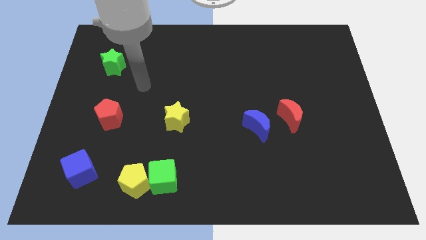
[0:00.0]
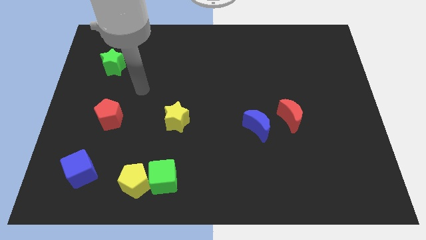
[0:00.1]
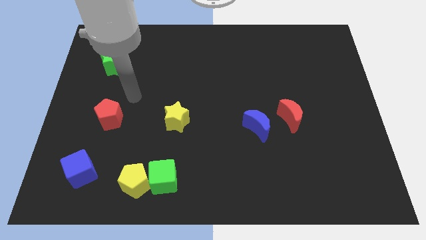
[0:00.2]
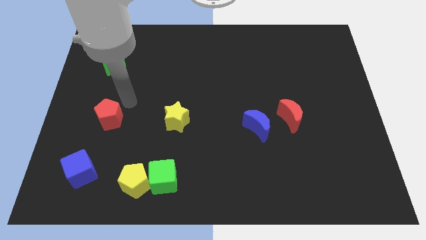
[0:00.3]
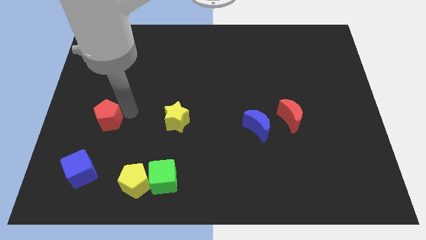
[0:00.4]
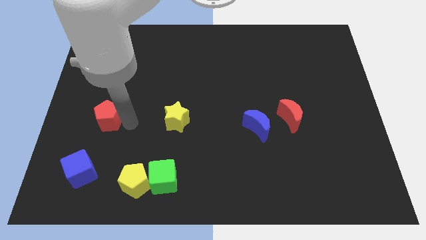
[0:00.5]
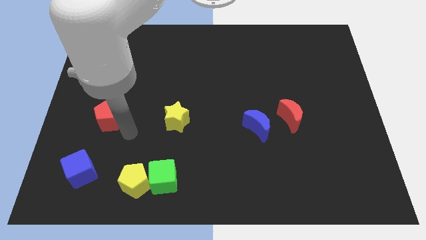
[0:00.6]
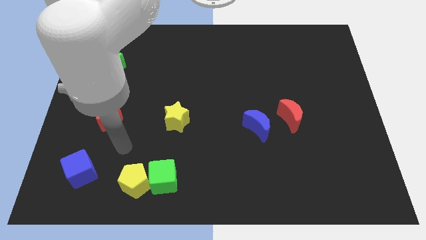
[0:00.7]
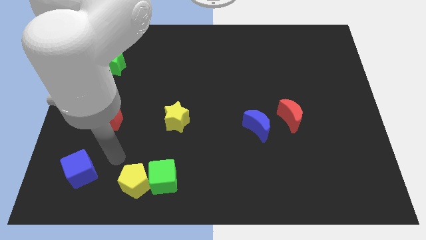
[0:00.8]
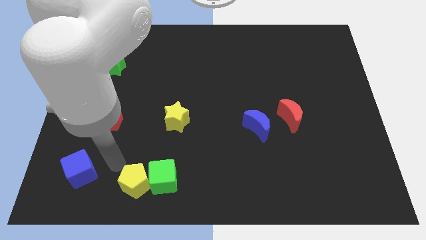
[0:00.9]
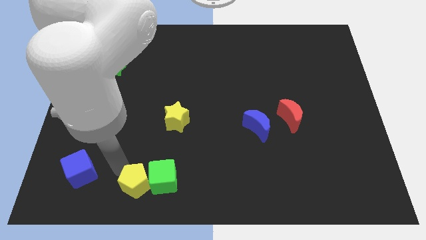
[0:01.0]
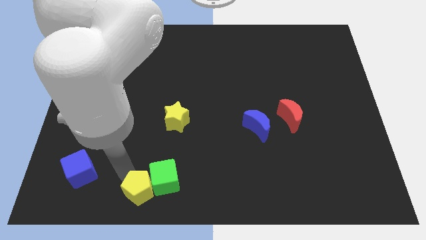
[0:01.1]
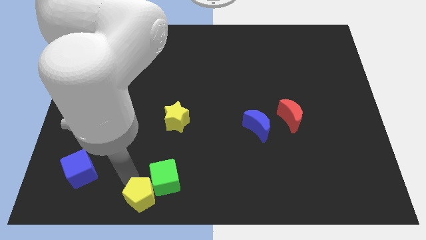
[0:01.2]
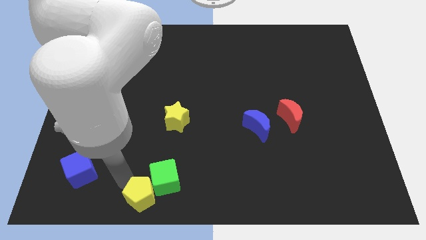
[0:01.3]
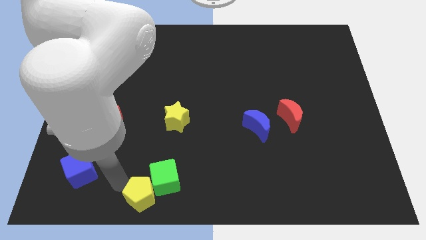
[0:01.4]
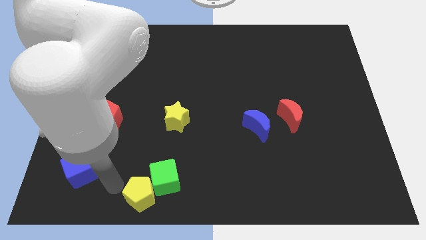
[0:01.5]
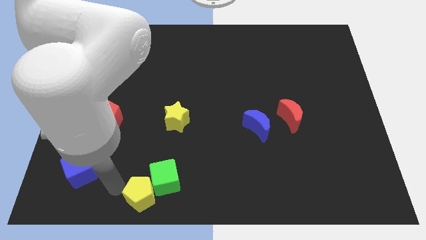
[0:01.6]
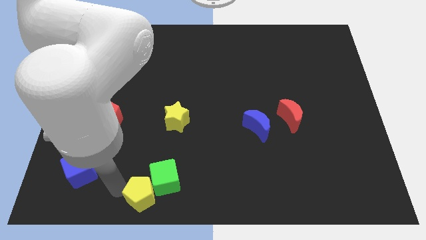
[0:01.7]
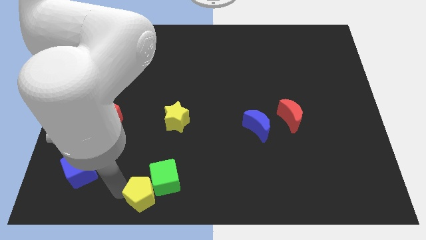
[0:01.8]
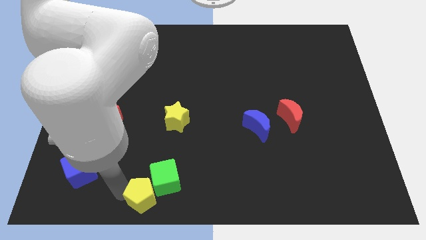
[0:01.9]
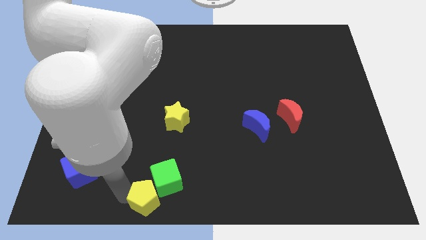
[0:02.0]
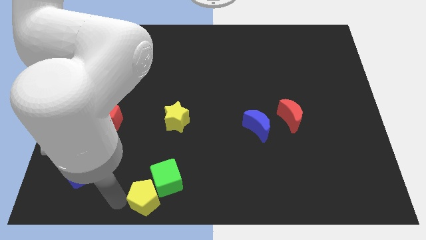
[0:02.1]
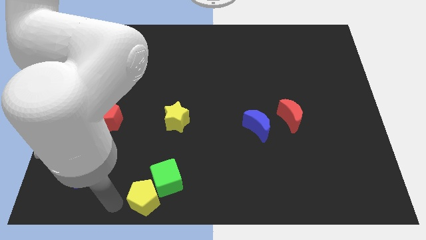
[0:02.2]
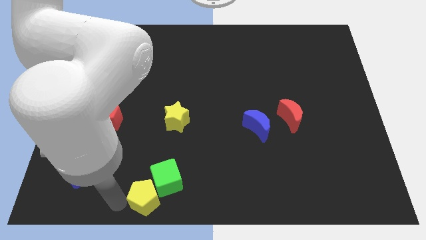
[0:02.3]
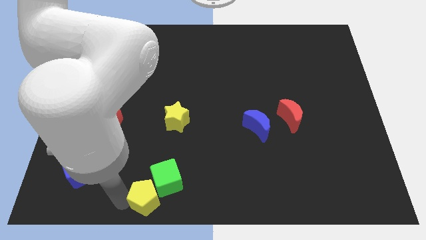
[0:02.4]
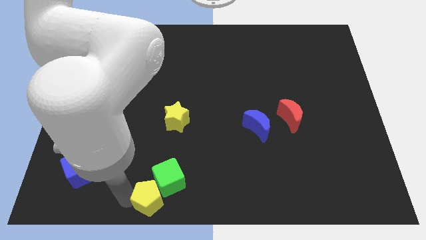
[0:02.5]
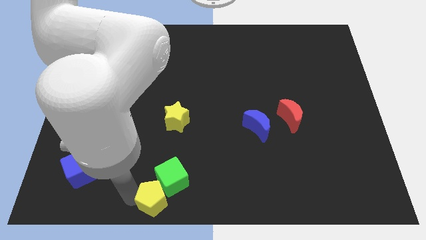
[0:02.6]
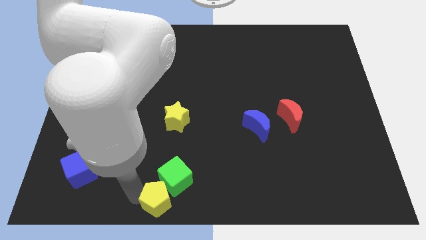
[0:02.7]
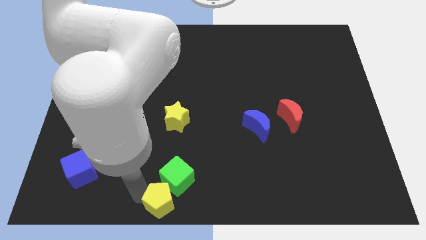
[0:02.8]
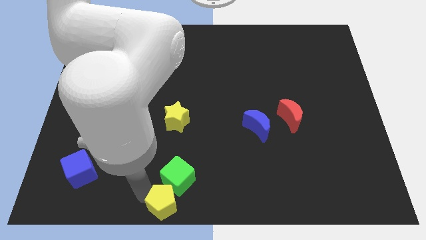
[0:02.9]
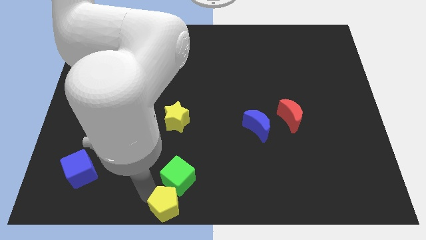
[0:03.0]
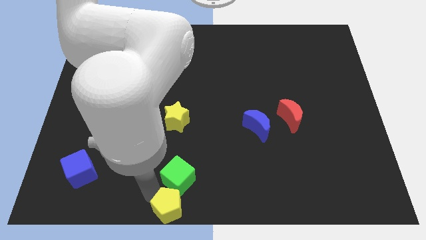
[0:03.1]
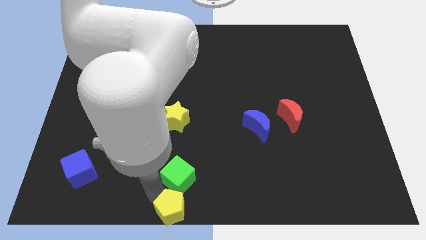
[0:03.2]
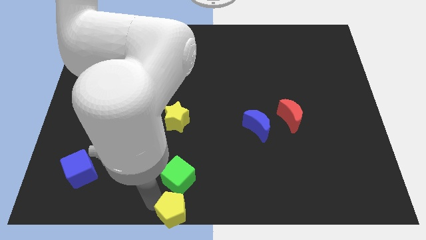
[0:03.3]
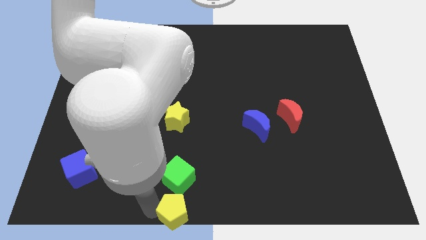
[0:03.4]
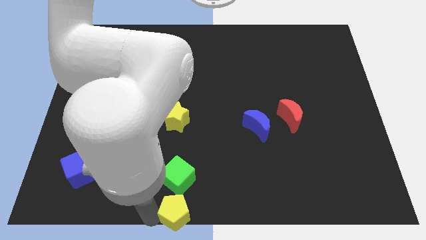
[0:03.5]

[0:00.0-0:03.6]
slide the yellow pentagon right a bit

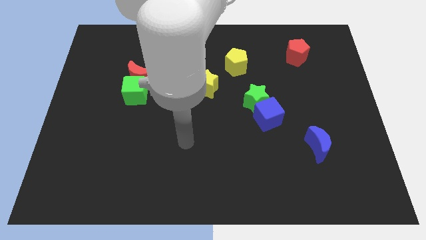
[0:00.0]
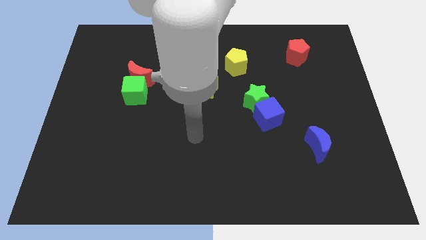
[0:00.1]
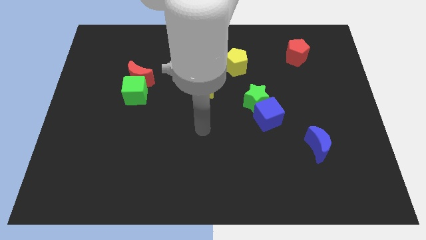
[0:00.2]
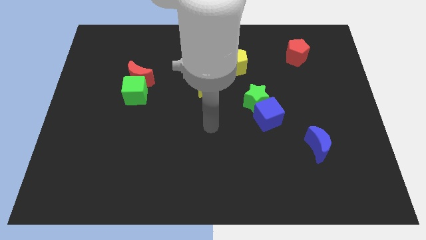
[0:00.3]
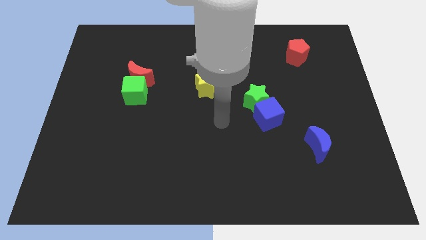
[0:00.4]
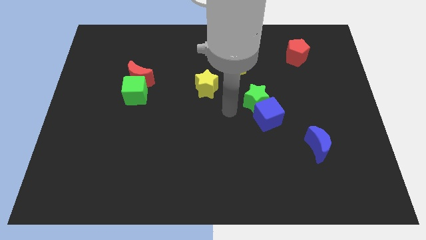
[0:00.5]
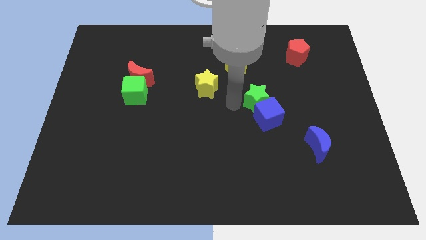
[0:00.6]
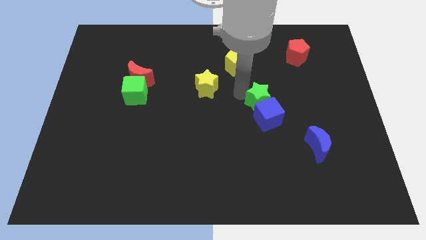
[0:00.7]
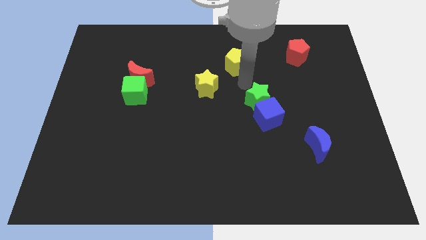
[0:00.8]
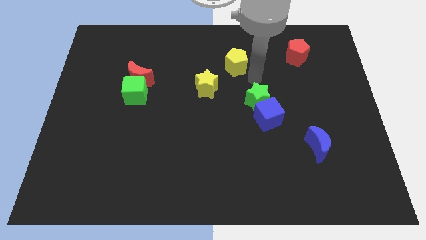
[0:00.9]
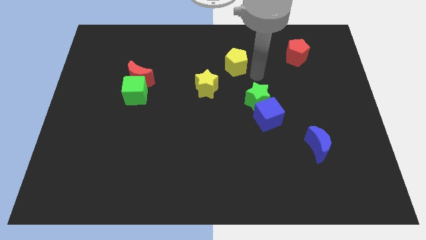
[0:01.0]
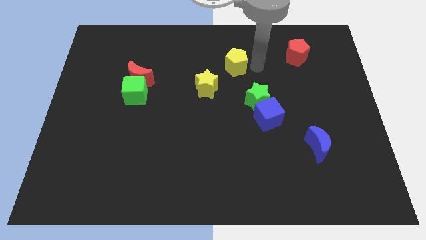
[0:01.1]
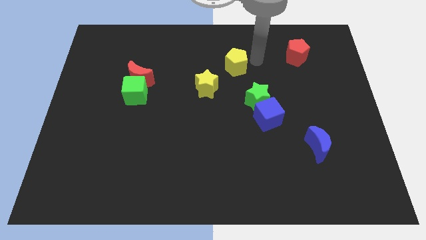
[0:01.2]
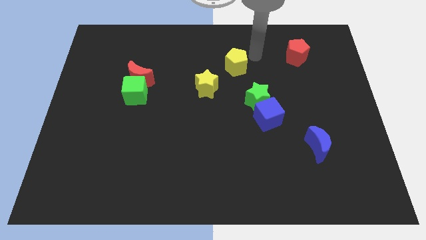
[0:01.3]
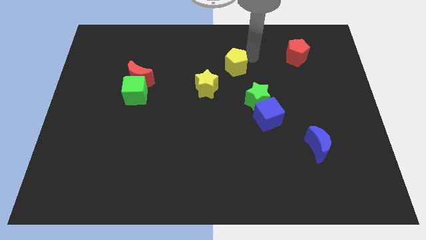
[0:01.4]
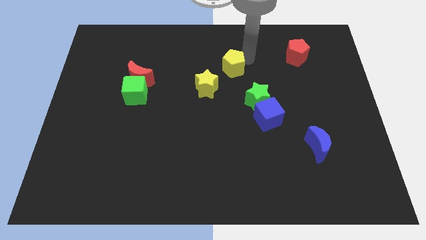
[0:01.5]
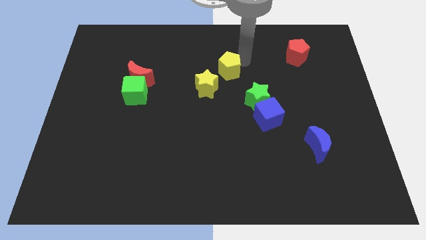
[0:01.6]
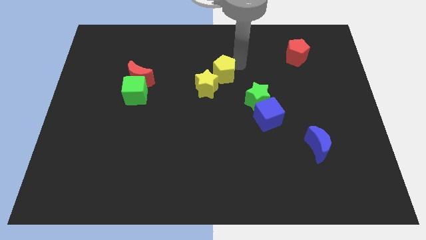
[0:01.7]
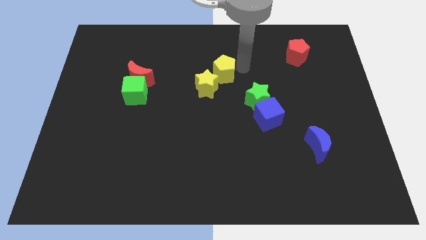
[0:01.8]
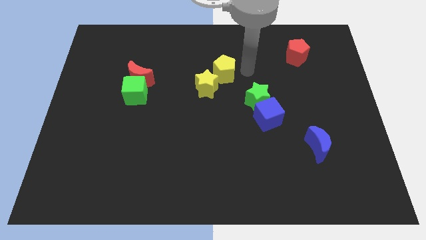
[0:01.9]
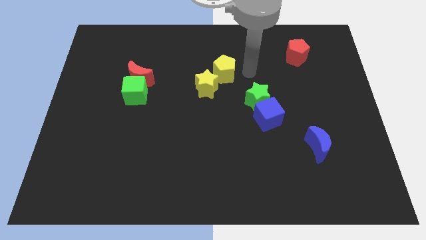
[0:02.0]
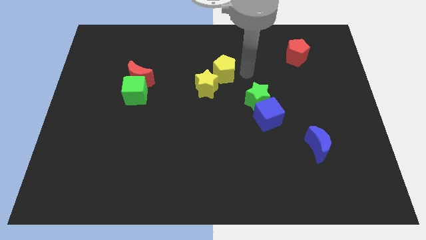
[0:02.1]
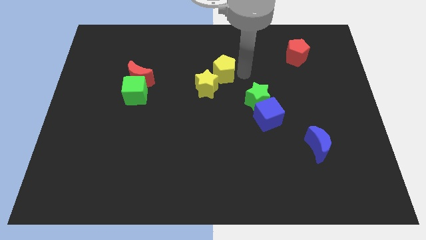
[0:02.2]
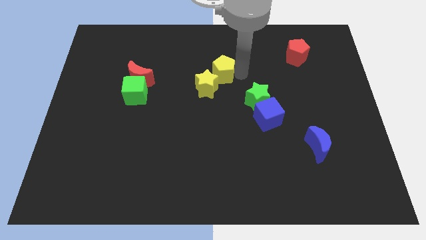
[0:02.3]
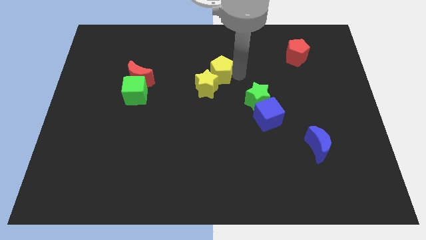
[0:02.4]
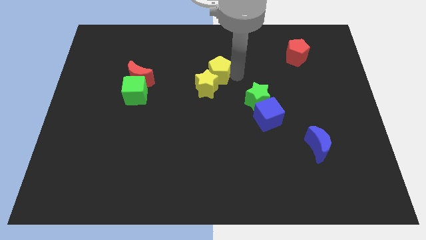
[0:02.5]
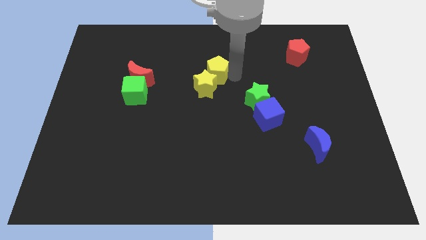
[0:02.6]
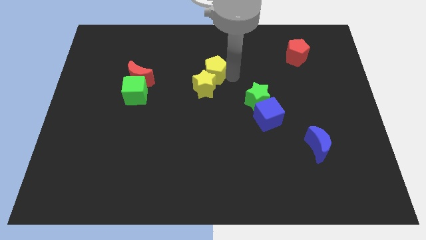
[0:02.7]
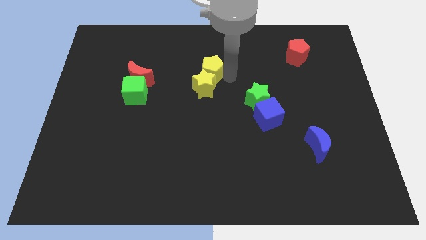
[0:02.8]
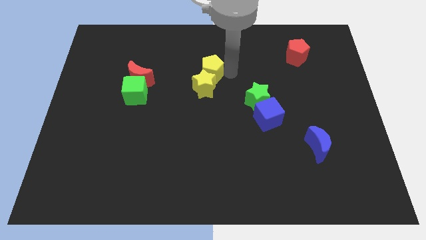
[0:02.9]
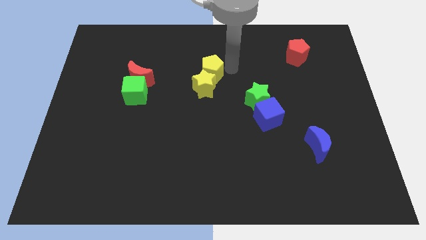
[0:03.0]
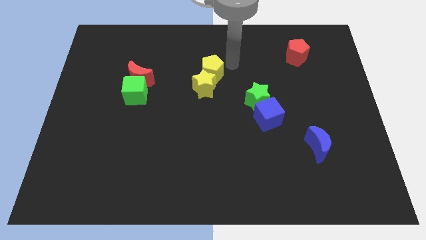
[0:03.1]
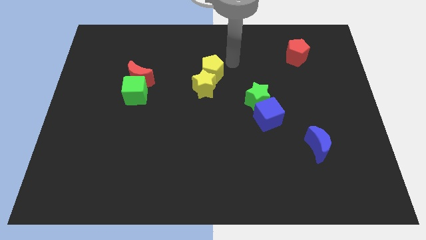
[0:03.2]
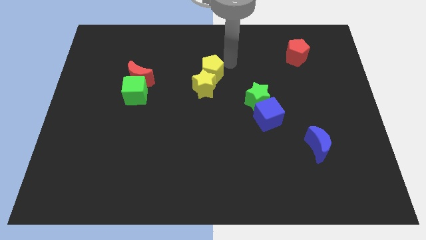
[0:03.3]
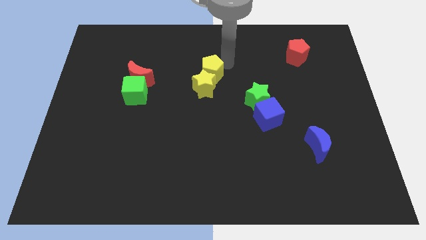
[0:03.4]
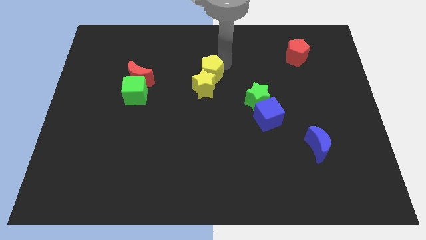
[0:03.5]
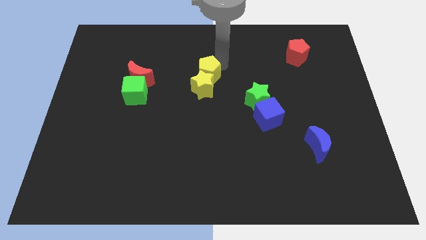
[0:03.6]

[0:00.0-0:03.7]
move the yellow pentagon slightly downwards and left diagonally

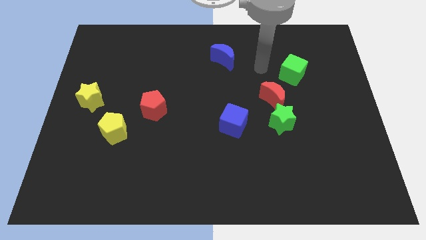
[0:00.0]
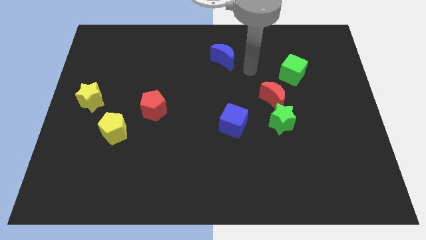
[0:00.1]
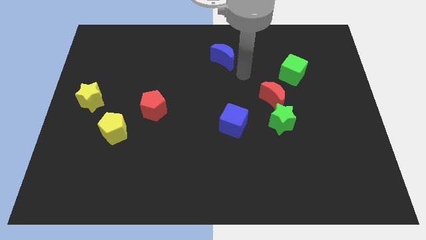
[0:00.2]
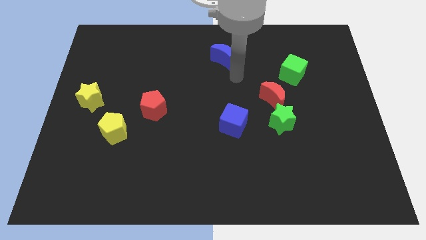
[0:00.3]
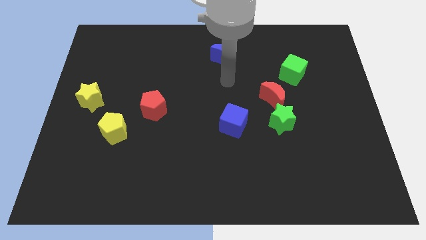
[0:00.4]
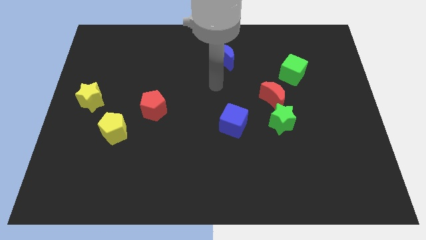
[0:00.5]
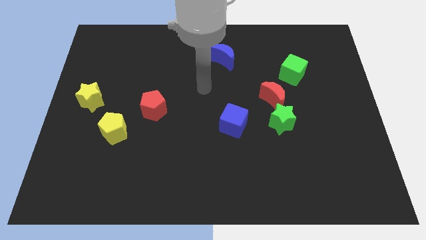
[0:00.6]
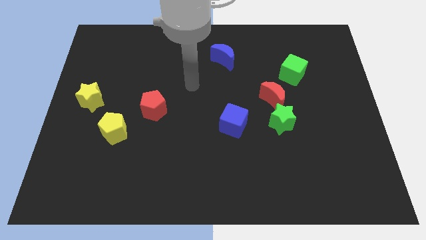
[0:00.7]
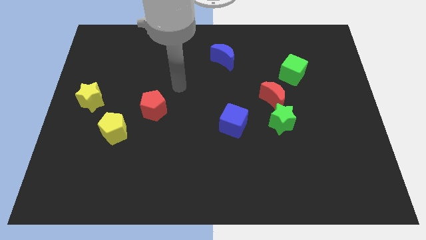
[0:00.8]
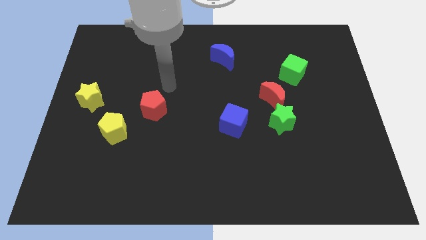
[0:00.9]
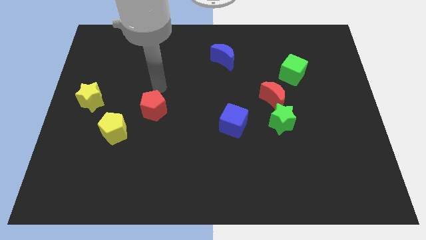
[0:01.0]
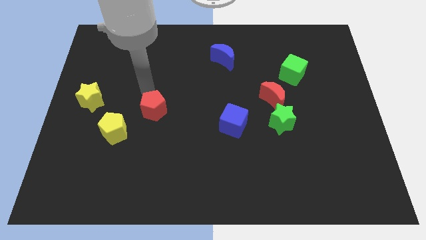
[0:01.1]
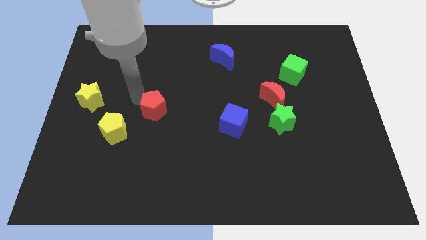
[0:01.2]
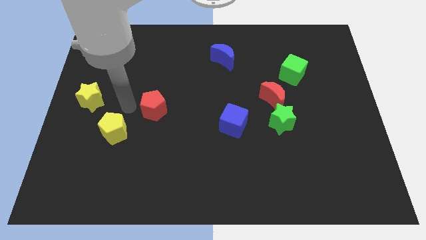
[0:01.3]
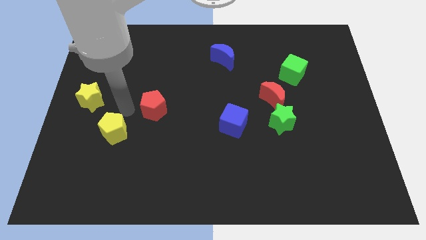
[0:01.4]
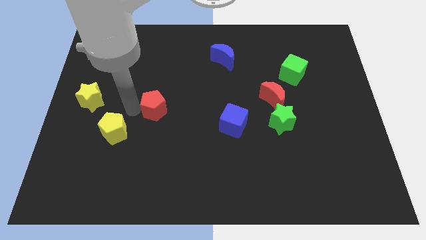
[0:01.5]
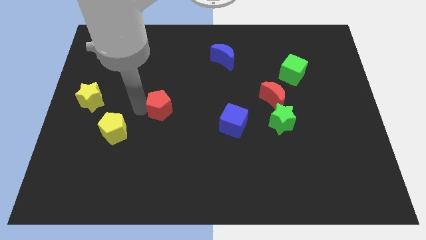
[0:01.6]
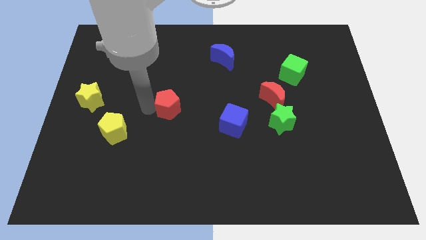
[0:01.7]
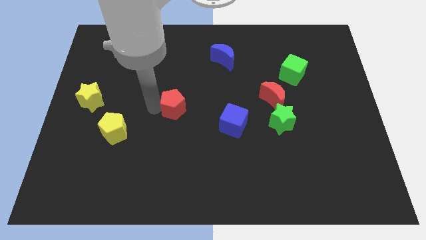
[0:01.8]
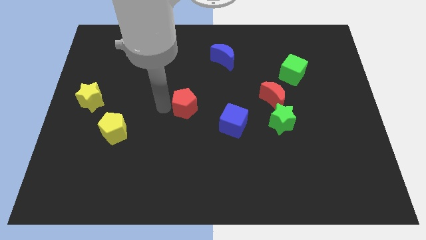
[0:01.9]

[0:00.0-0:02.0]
slide the red pentagon slightly to the right
